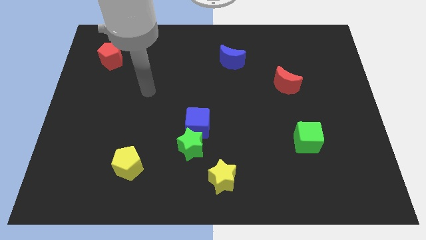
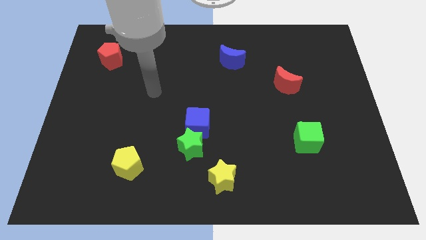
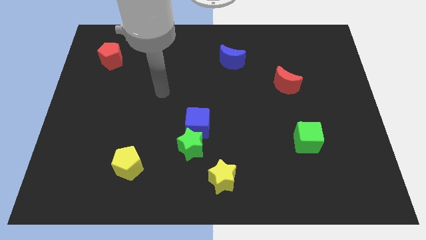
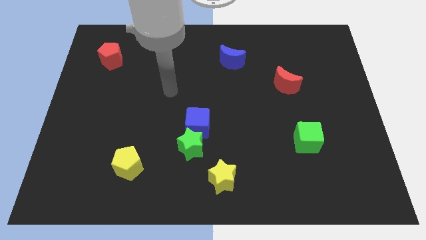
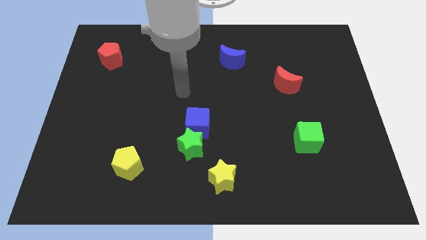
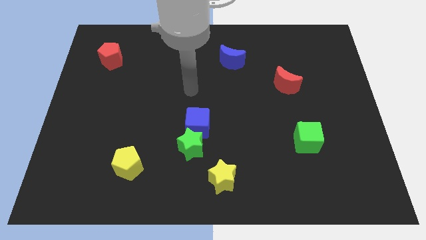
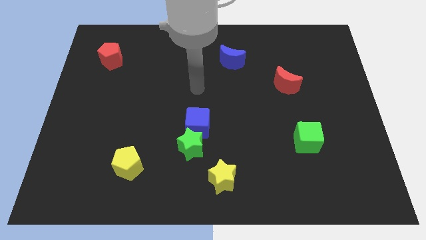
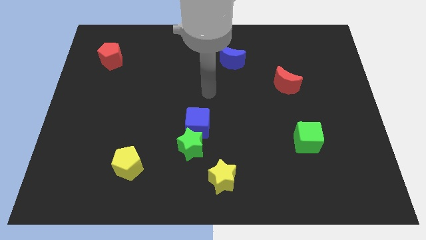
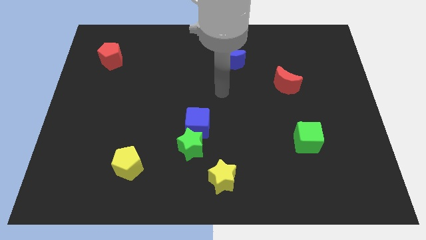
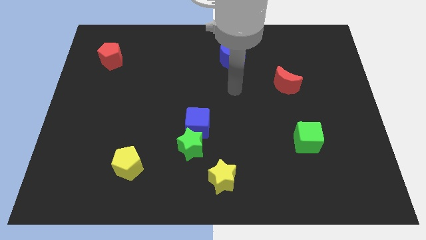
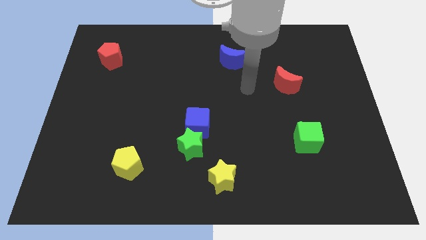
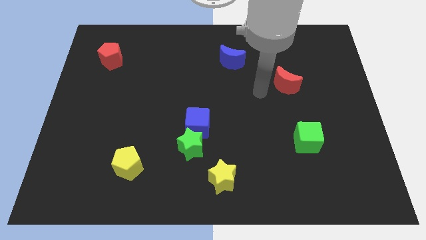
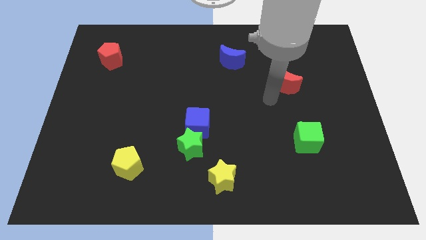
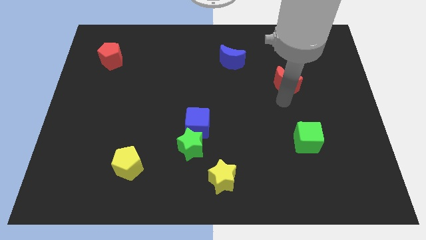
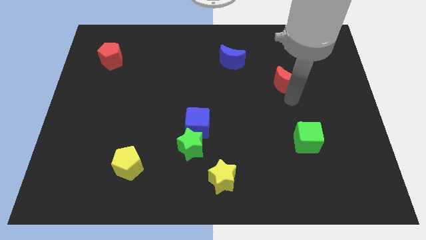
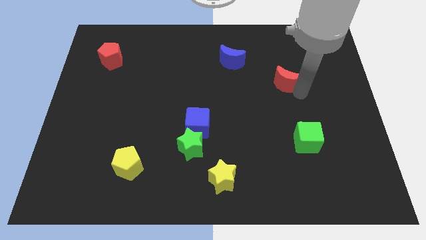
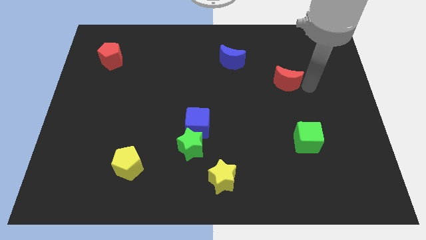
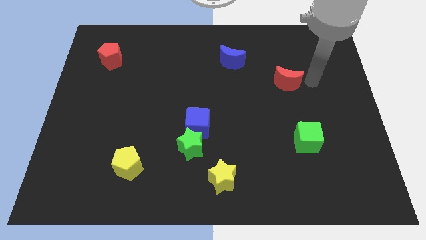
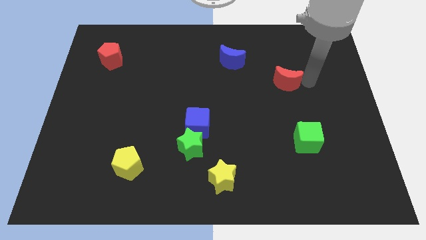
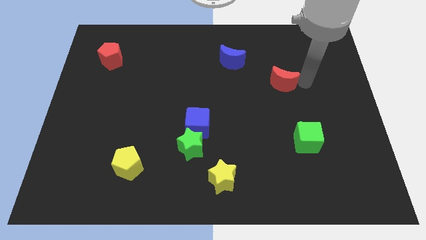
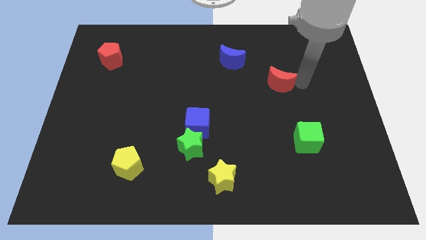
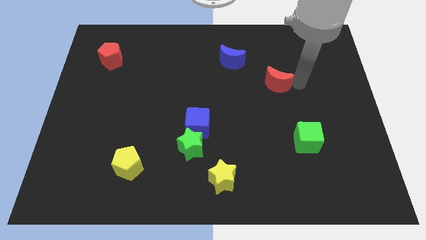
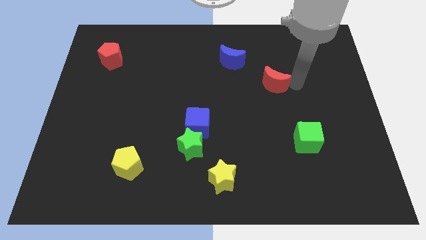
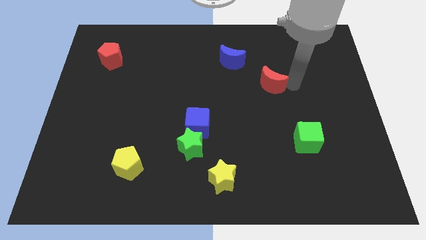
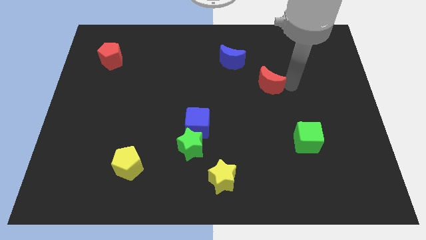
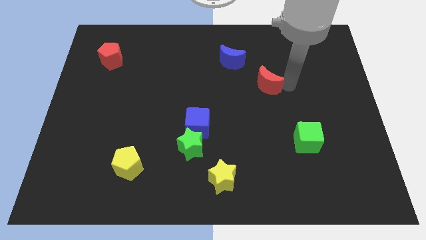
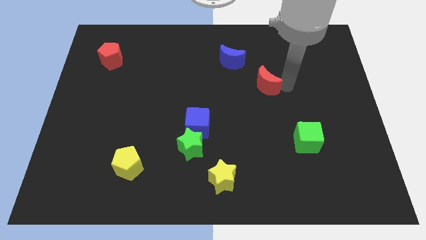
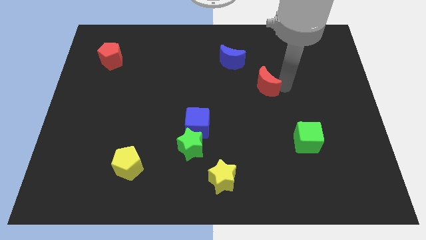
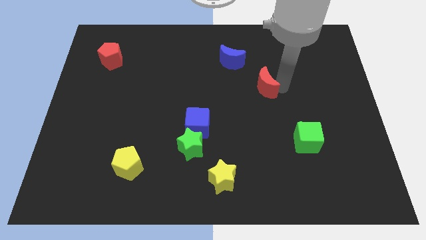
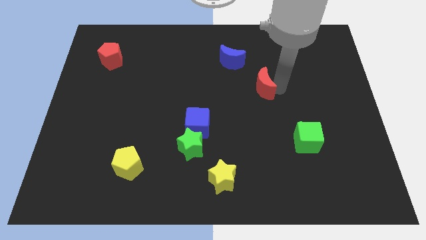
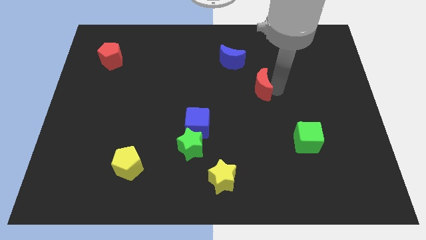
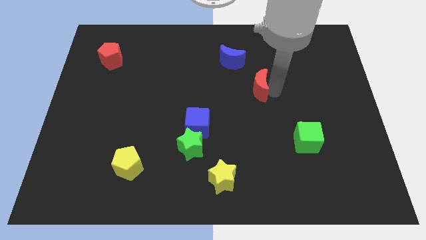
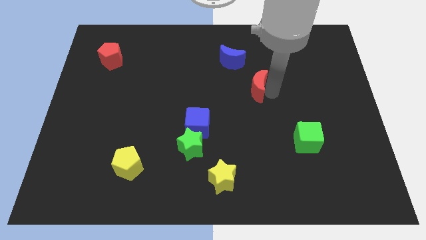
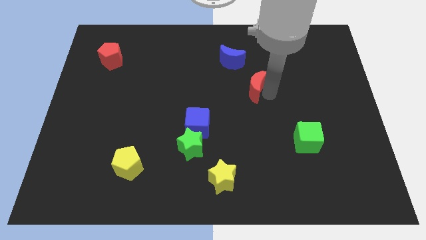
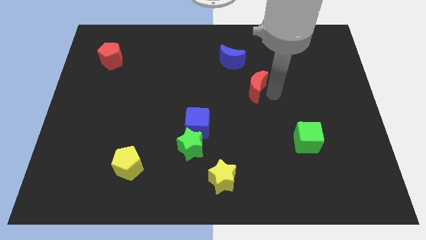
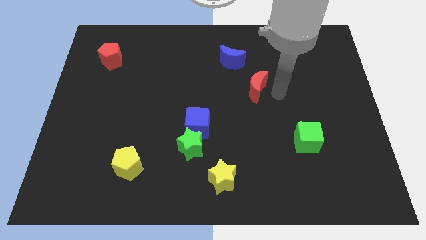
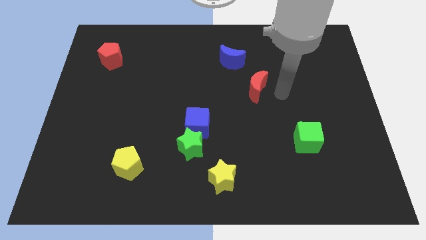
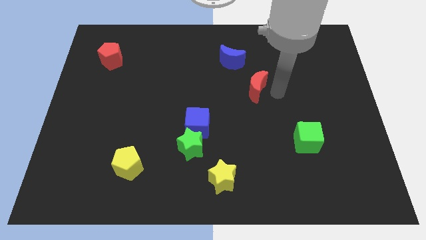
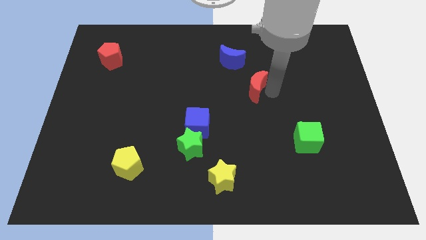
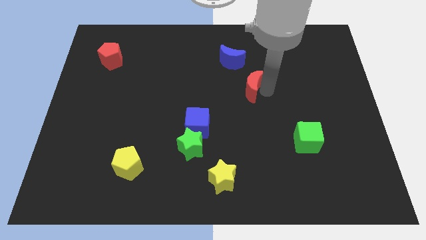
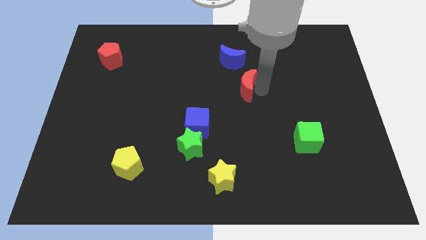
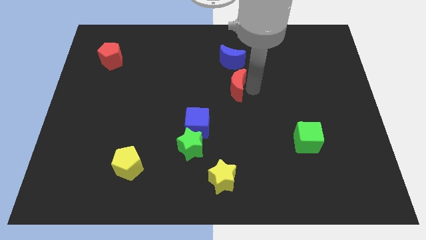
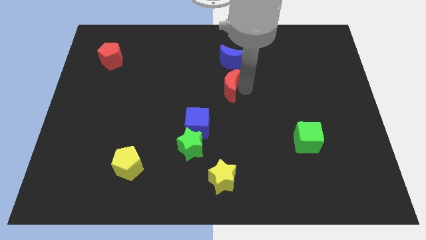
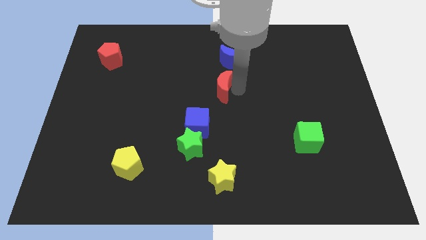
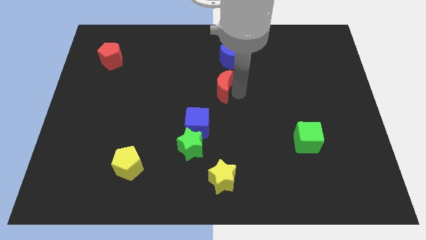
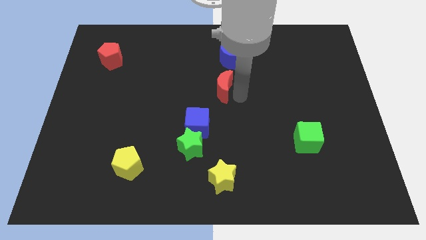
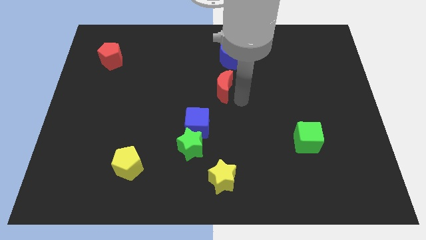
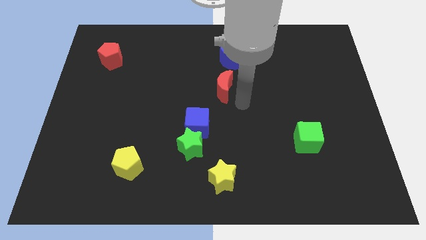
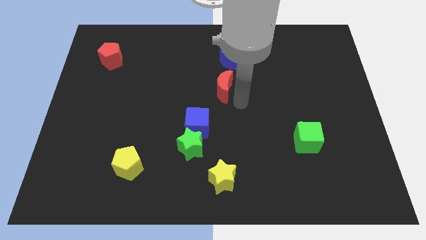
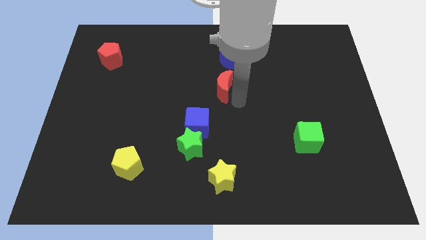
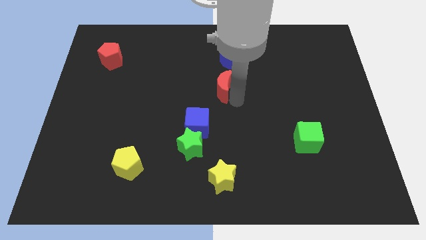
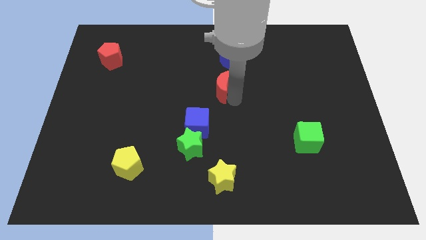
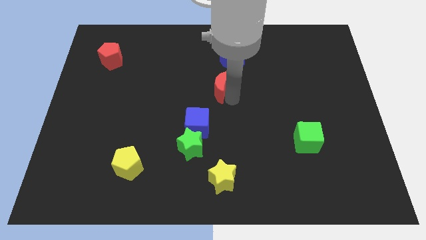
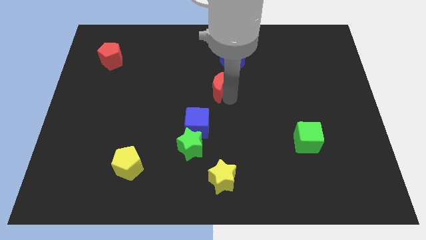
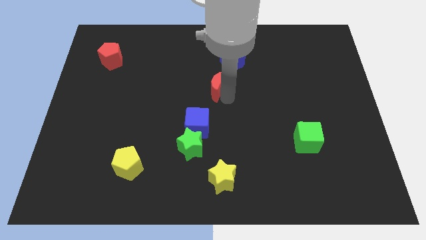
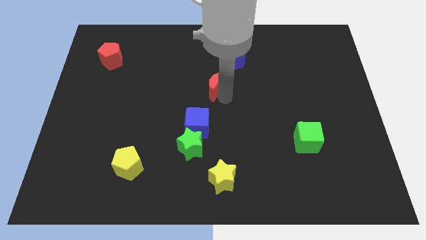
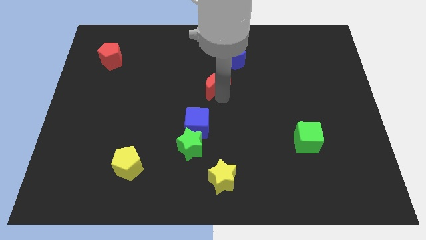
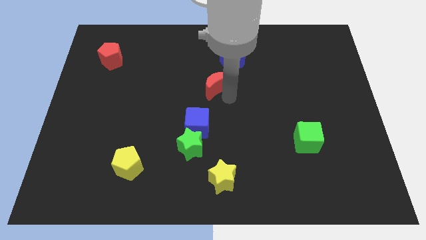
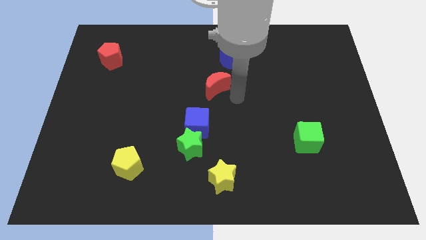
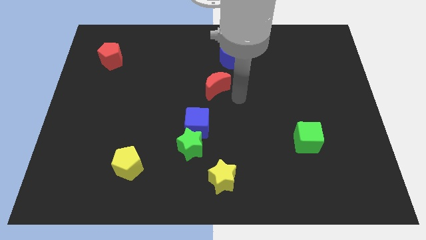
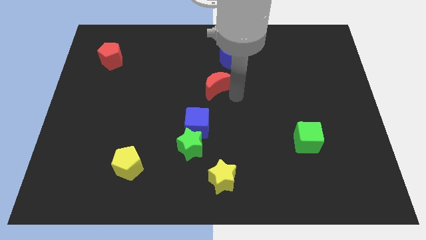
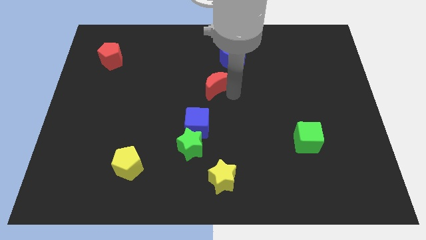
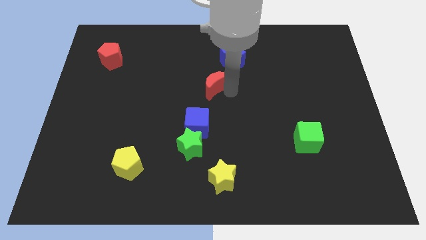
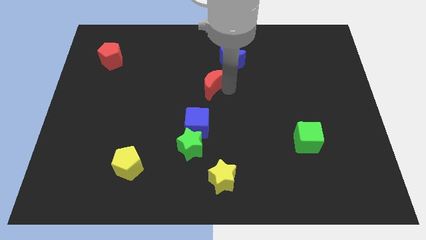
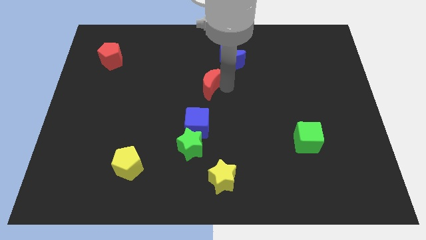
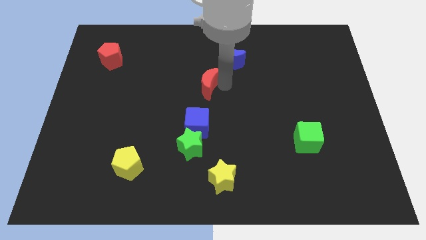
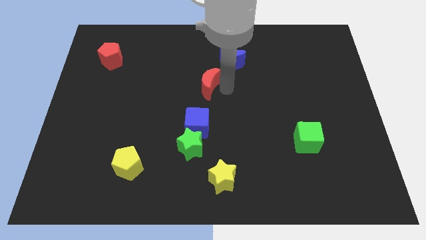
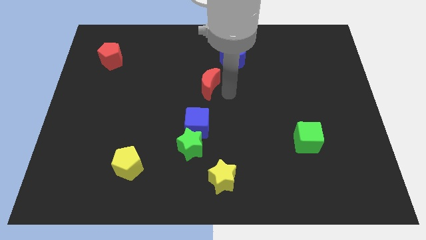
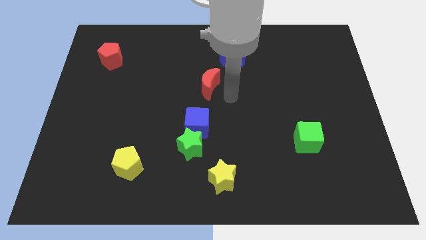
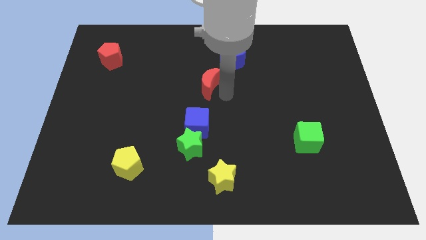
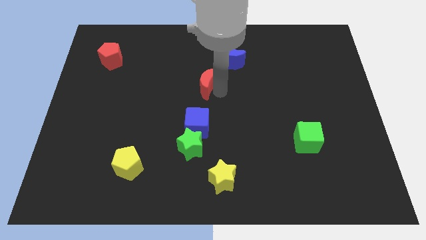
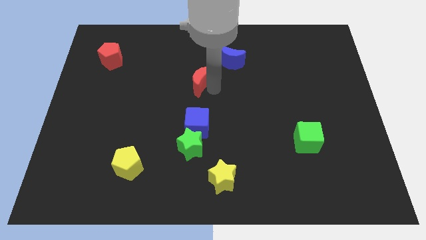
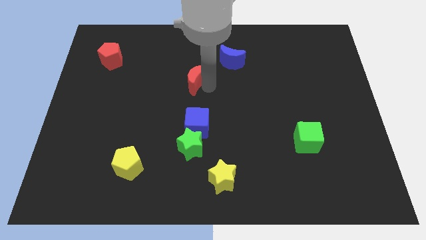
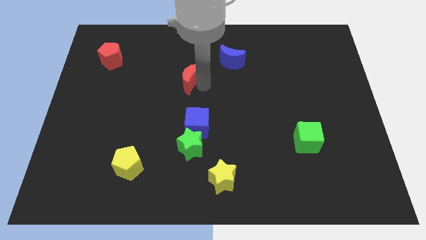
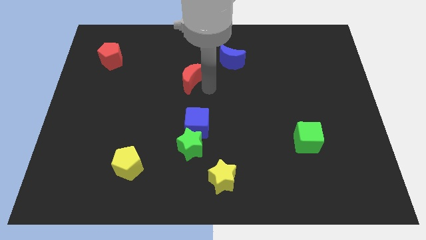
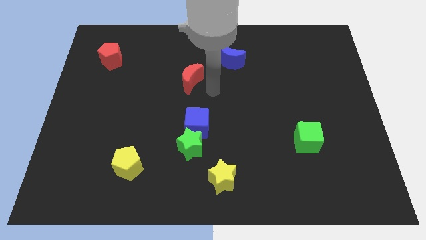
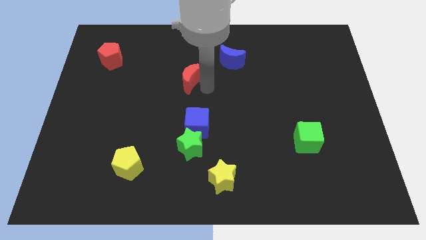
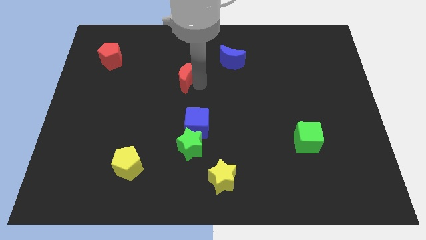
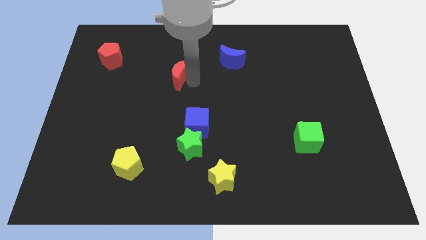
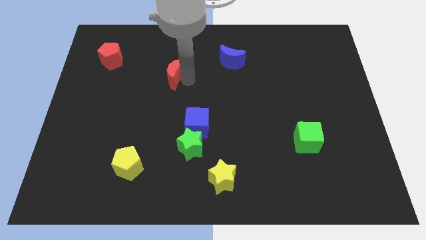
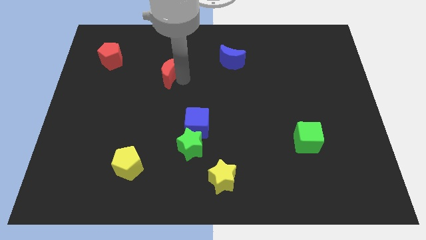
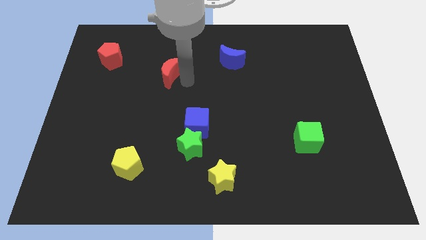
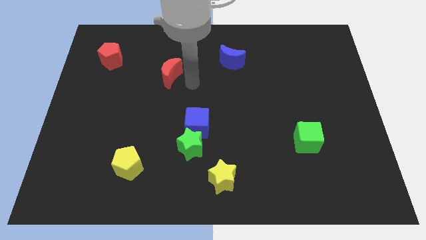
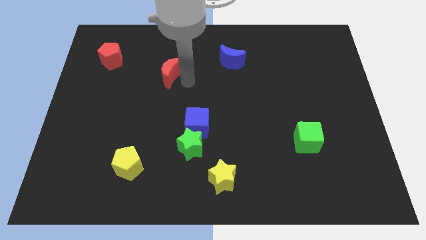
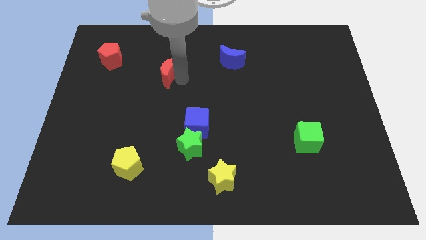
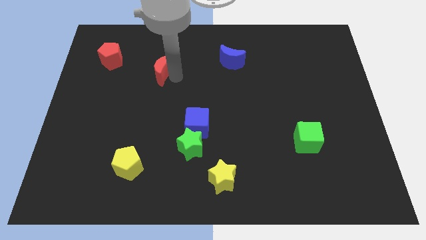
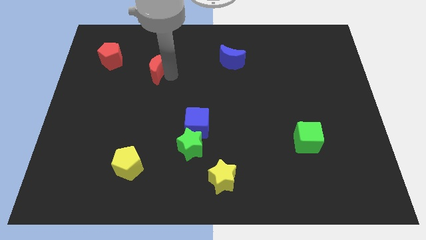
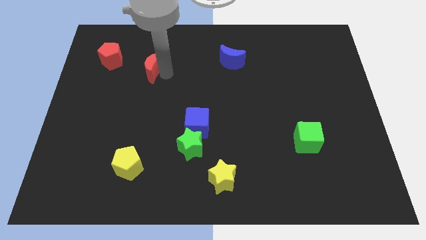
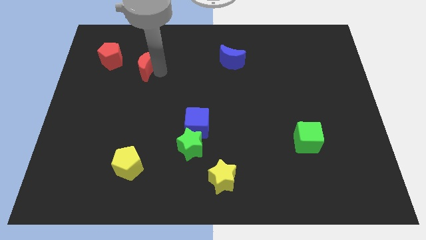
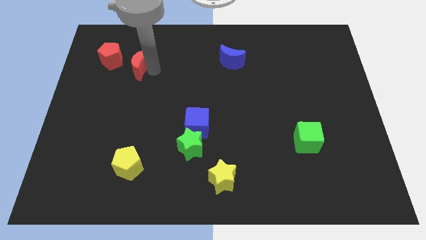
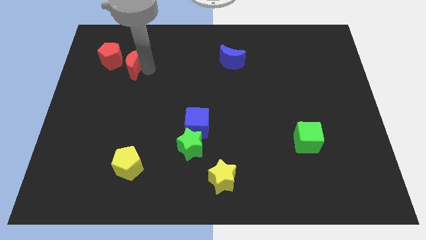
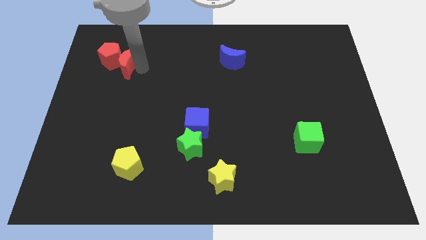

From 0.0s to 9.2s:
push the red moon close to the red pentagon
